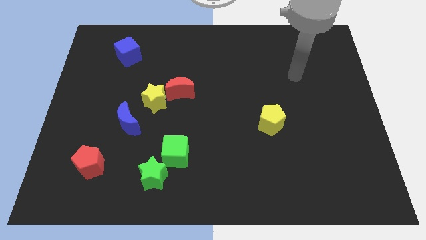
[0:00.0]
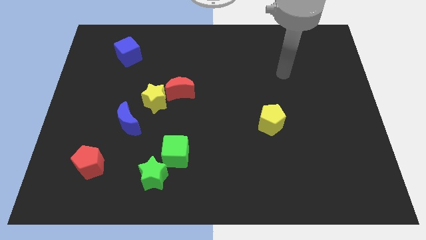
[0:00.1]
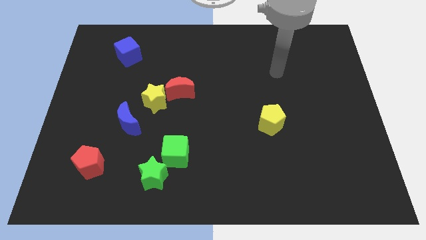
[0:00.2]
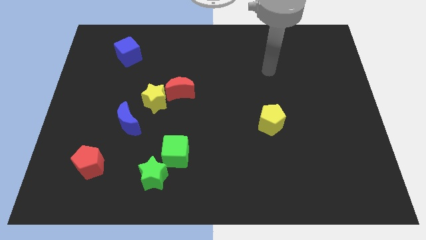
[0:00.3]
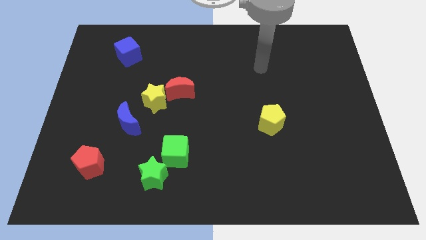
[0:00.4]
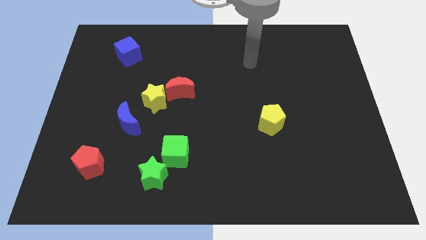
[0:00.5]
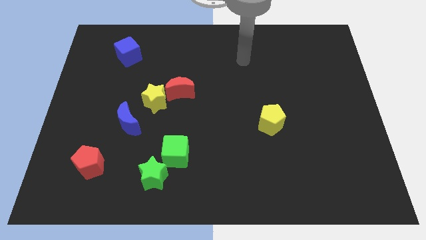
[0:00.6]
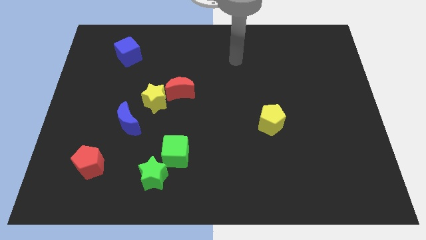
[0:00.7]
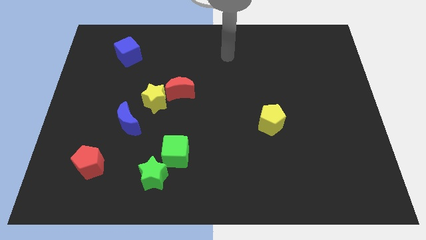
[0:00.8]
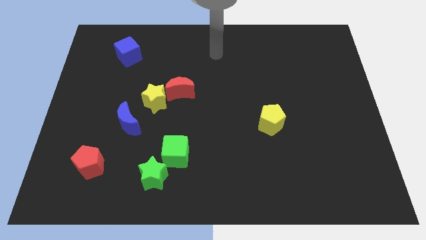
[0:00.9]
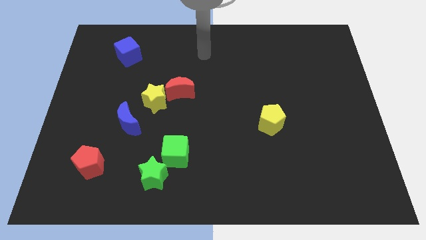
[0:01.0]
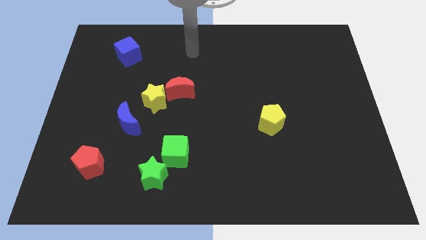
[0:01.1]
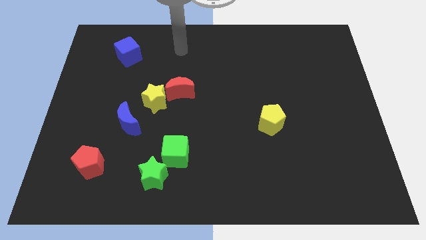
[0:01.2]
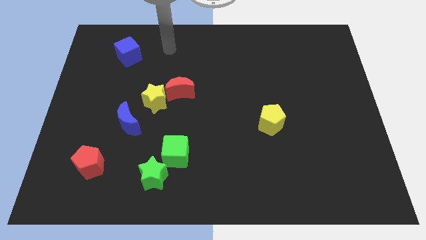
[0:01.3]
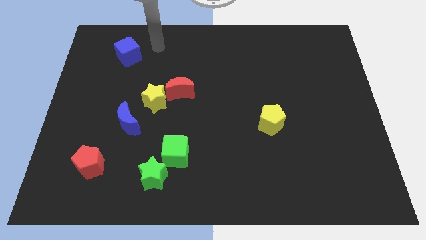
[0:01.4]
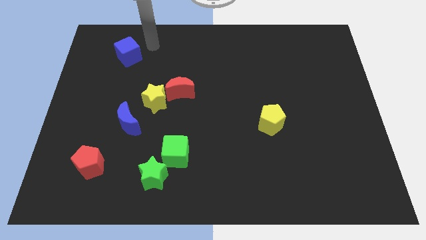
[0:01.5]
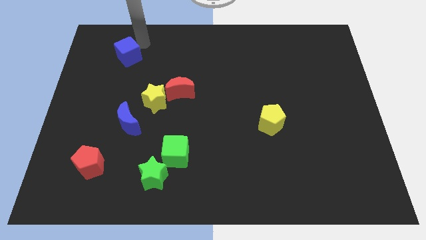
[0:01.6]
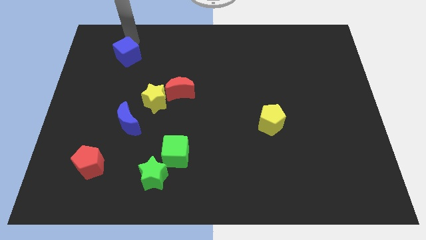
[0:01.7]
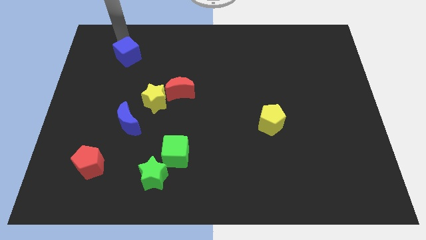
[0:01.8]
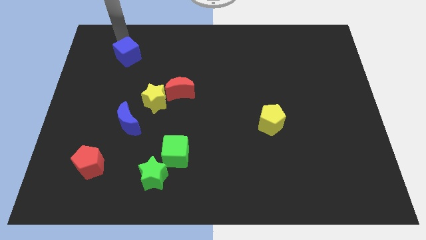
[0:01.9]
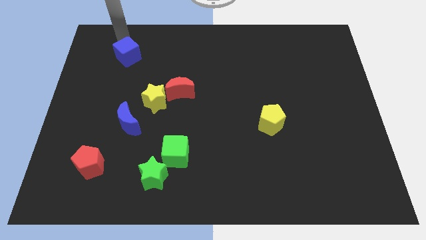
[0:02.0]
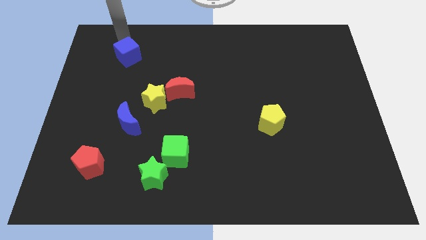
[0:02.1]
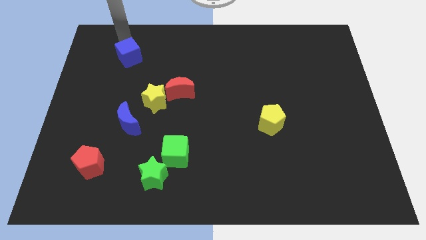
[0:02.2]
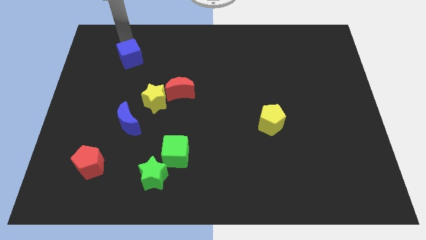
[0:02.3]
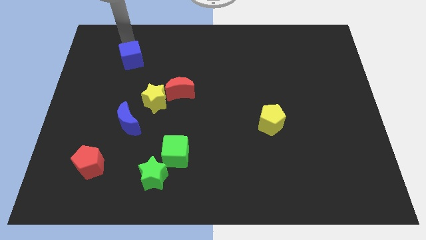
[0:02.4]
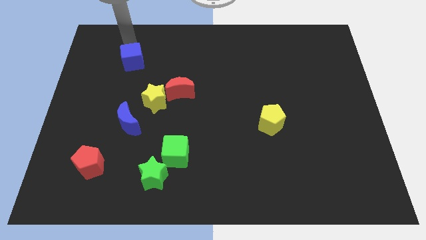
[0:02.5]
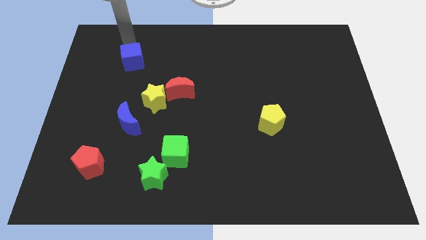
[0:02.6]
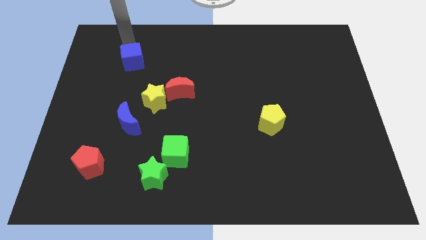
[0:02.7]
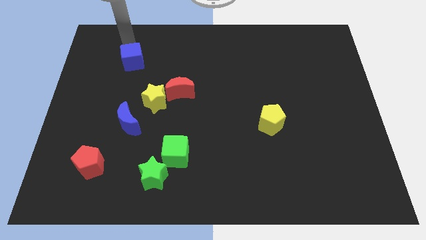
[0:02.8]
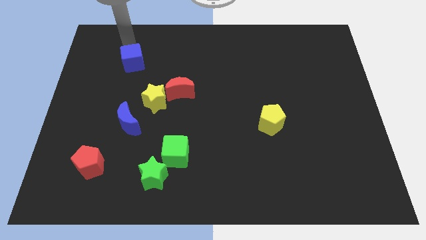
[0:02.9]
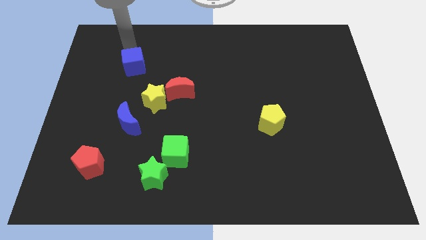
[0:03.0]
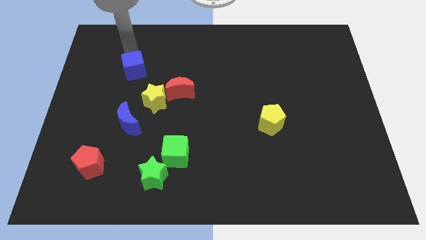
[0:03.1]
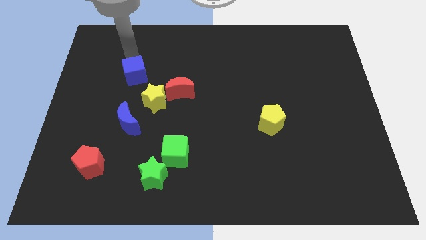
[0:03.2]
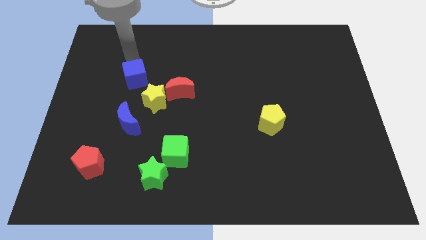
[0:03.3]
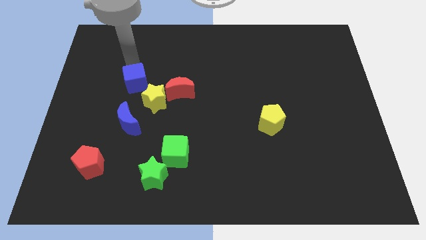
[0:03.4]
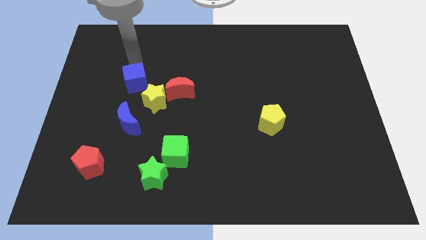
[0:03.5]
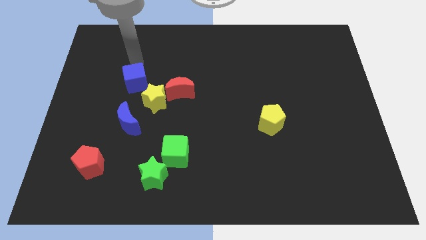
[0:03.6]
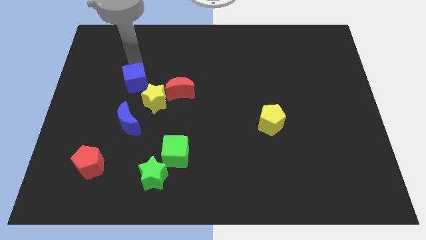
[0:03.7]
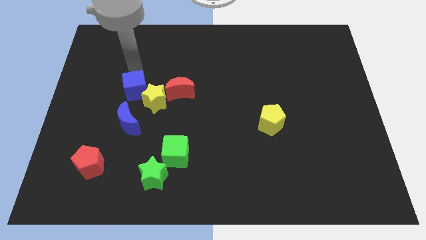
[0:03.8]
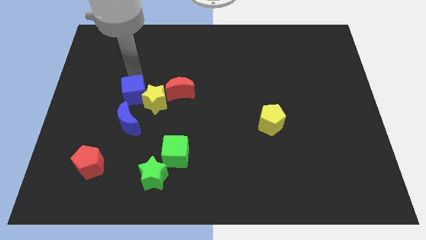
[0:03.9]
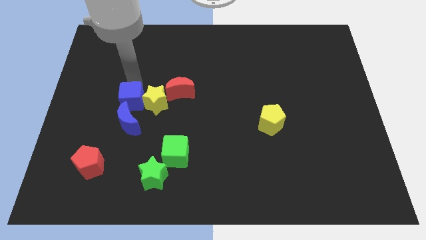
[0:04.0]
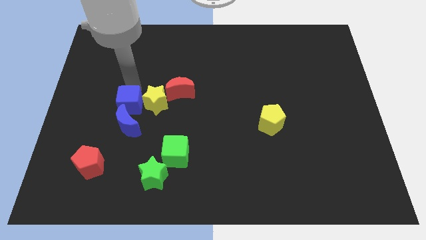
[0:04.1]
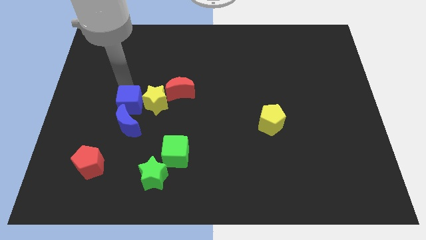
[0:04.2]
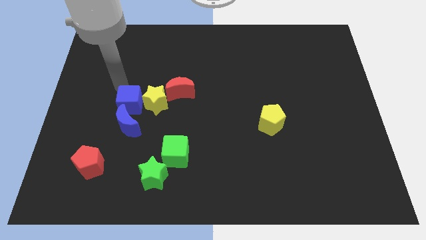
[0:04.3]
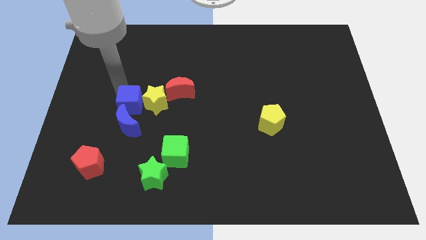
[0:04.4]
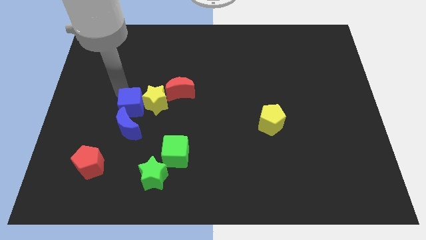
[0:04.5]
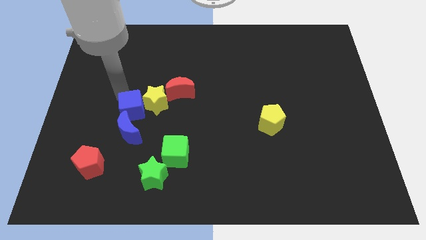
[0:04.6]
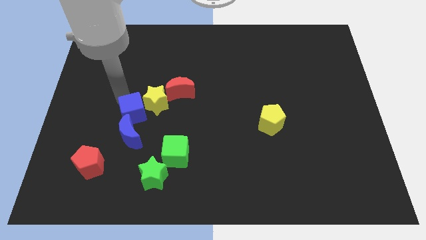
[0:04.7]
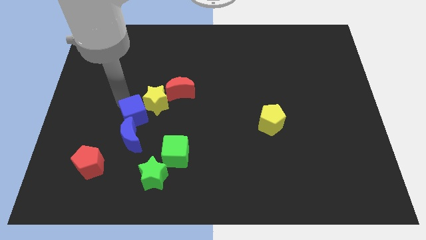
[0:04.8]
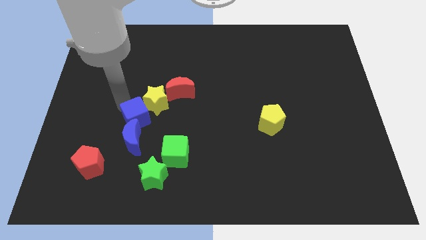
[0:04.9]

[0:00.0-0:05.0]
slide the blue cube below the yellow star

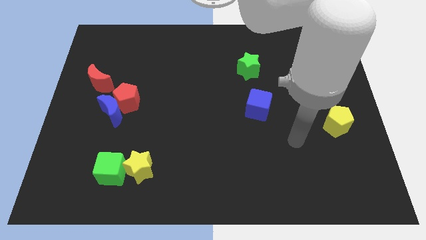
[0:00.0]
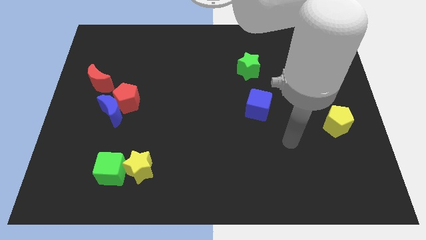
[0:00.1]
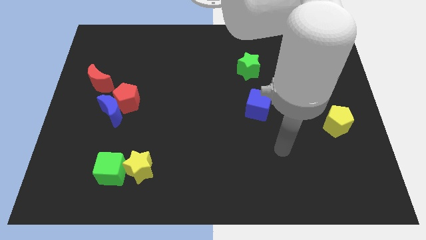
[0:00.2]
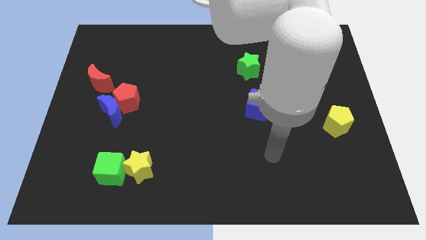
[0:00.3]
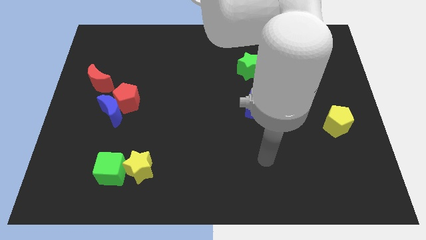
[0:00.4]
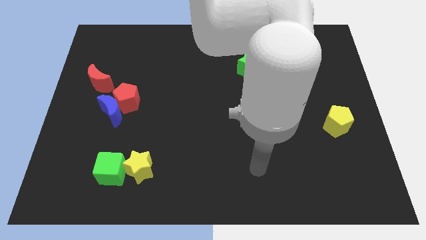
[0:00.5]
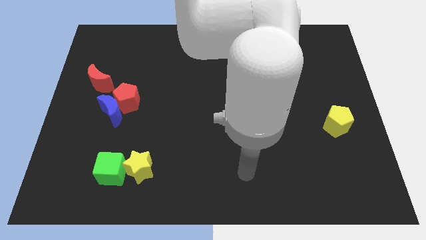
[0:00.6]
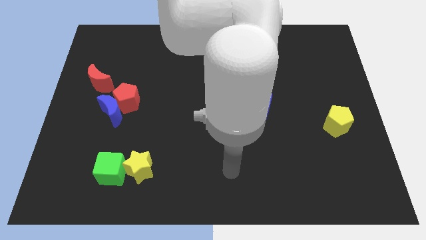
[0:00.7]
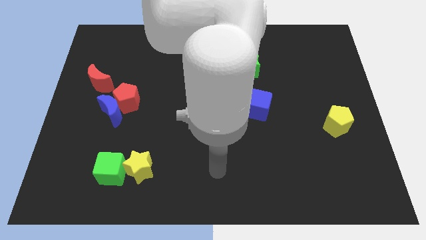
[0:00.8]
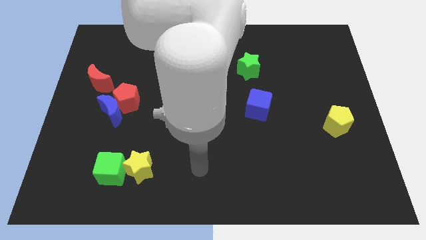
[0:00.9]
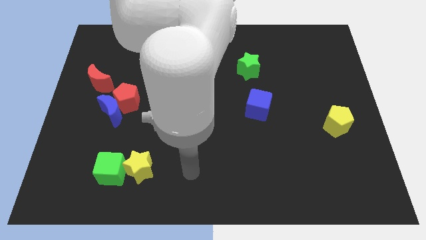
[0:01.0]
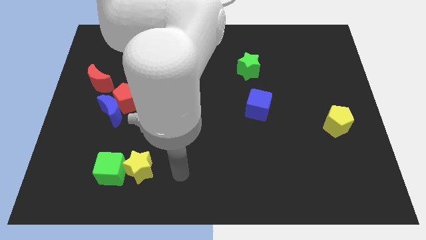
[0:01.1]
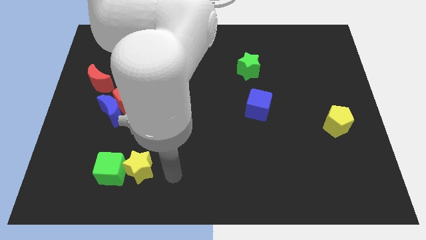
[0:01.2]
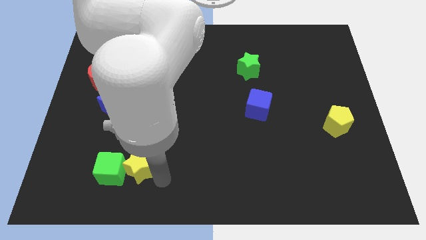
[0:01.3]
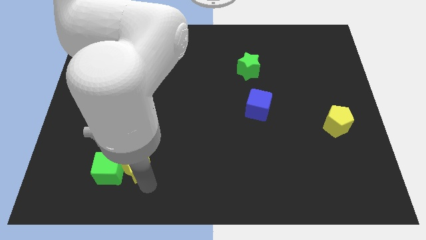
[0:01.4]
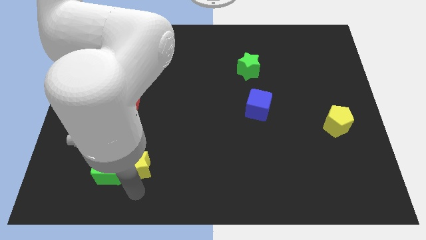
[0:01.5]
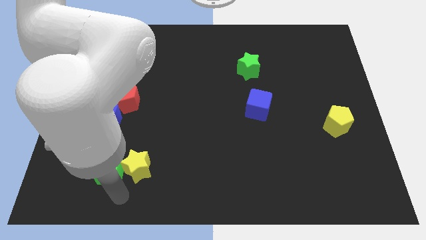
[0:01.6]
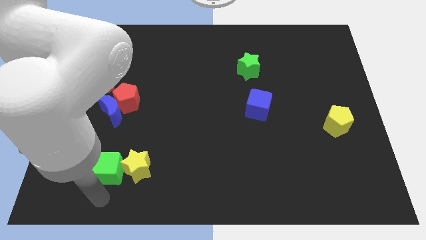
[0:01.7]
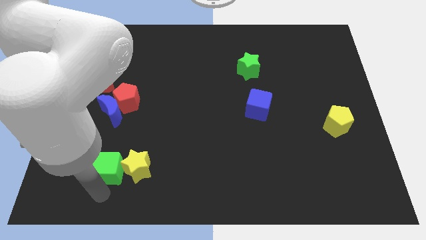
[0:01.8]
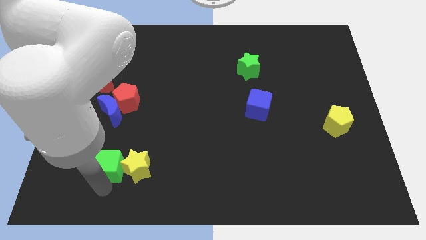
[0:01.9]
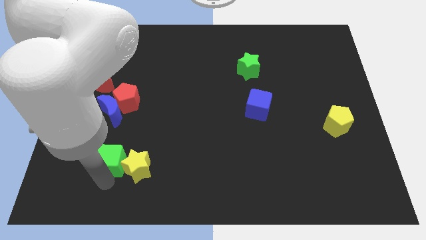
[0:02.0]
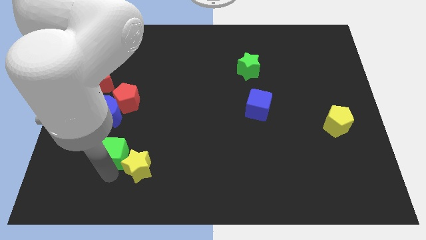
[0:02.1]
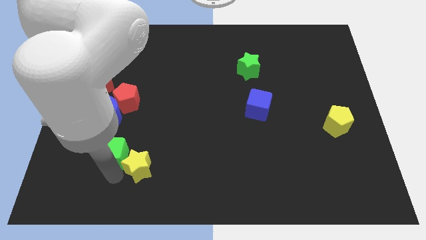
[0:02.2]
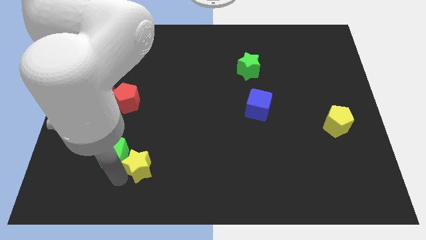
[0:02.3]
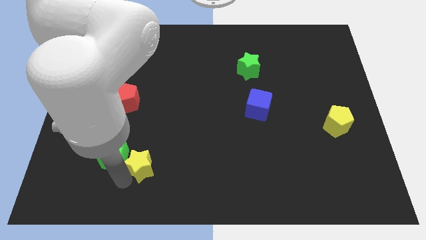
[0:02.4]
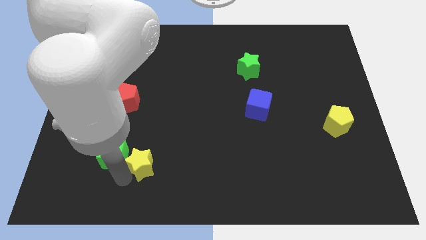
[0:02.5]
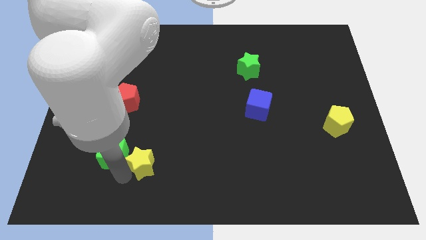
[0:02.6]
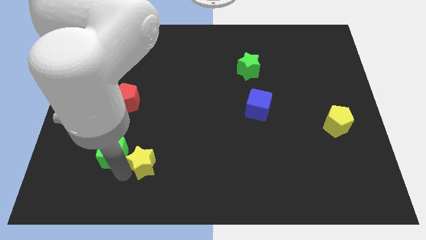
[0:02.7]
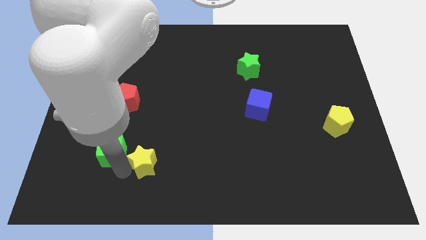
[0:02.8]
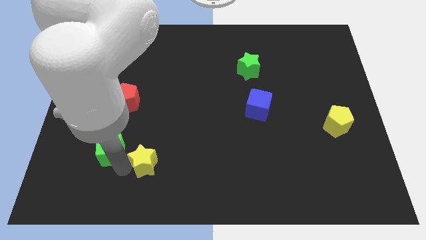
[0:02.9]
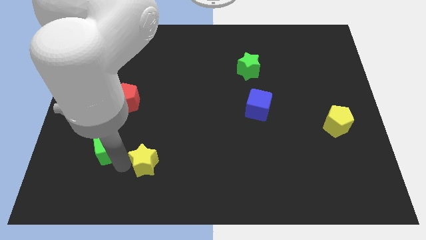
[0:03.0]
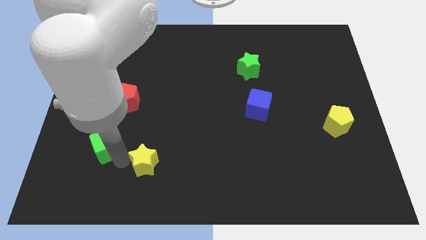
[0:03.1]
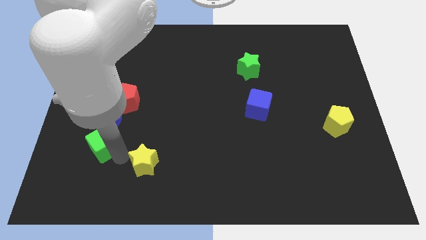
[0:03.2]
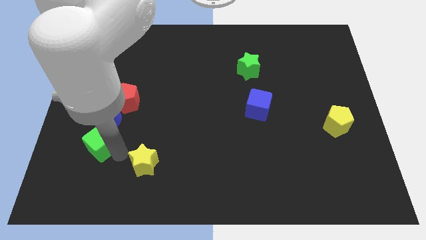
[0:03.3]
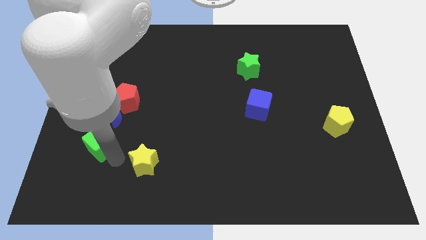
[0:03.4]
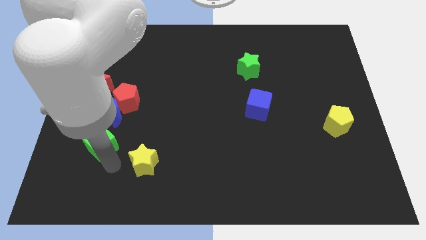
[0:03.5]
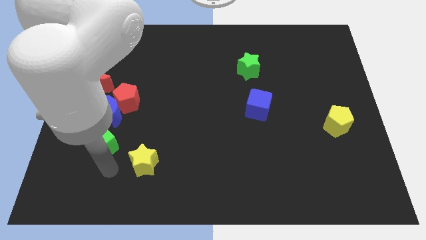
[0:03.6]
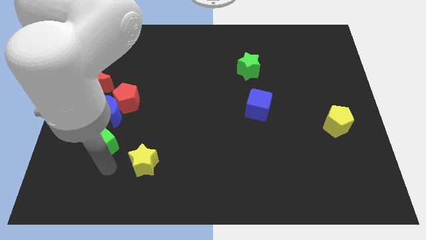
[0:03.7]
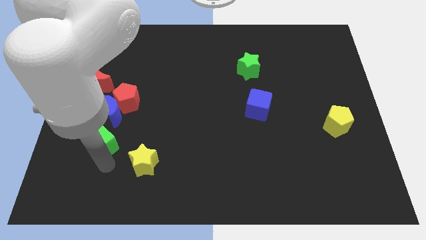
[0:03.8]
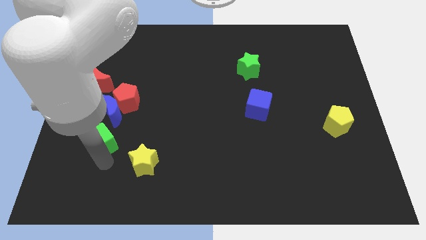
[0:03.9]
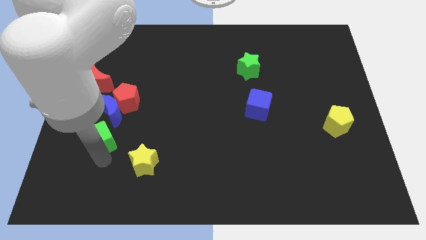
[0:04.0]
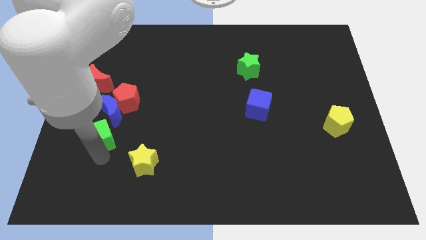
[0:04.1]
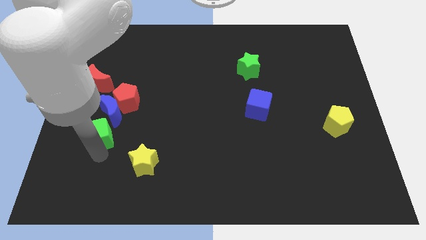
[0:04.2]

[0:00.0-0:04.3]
slide the green cube to the bottom left side of the red pentagon
